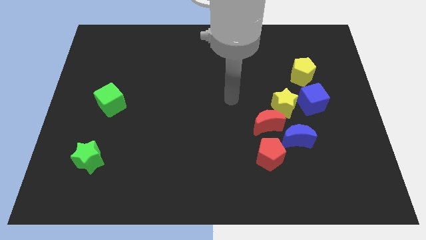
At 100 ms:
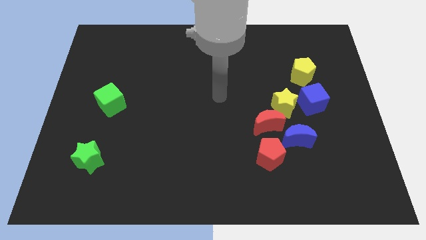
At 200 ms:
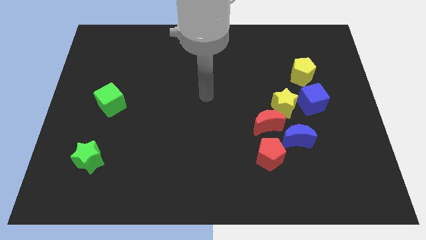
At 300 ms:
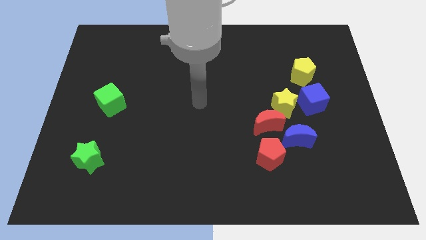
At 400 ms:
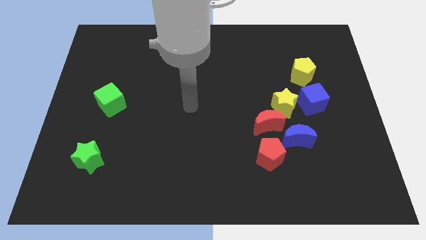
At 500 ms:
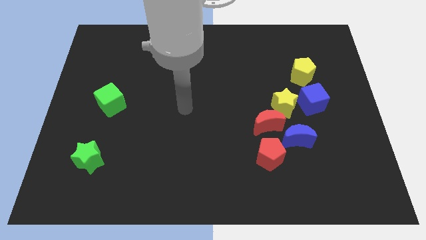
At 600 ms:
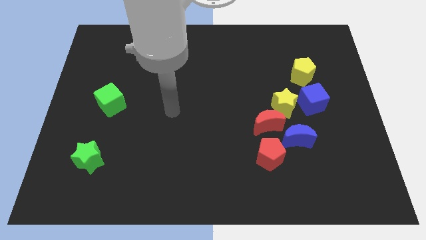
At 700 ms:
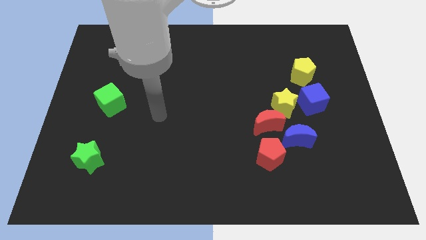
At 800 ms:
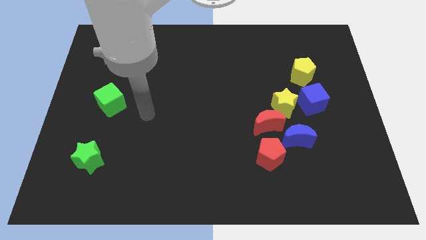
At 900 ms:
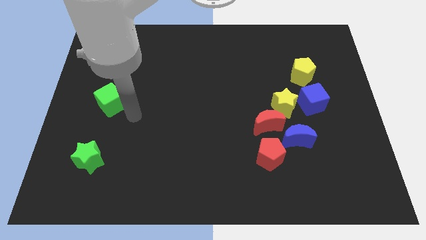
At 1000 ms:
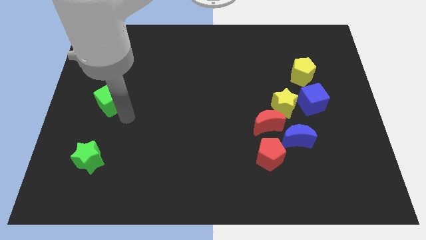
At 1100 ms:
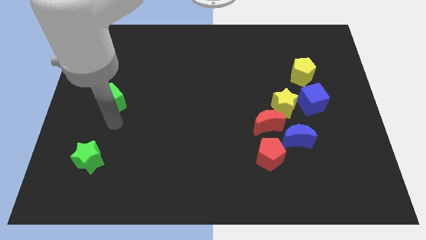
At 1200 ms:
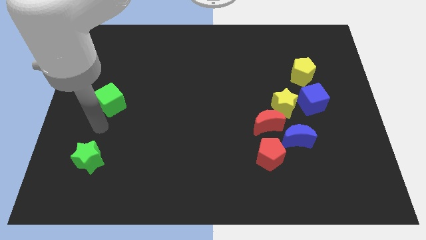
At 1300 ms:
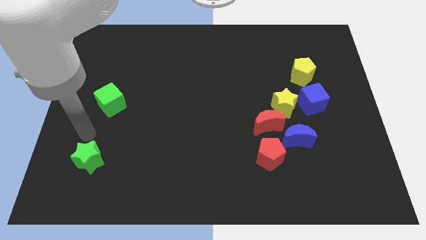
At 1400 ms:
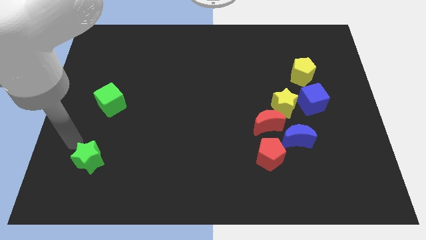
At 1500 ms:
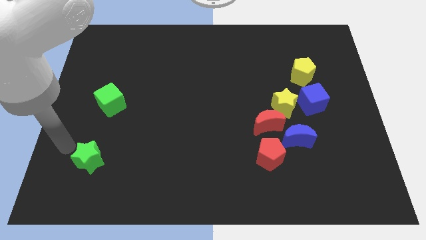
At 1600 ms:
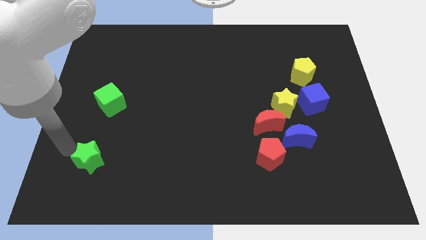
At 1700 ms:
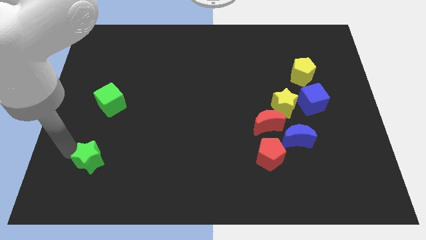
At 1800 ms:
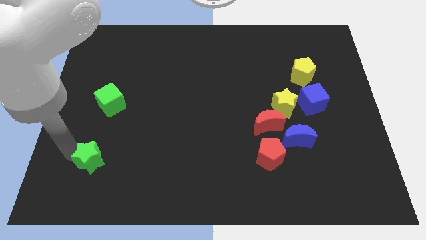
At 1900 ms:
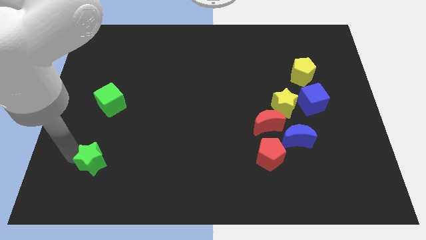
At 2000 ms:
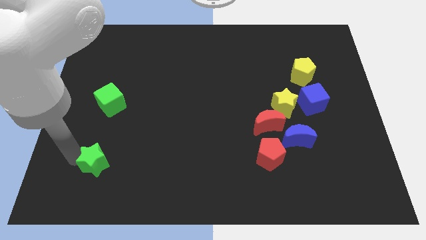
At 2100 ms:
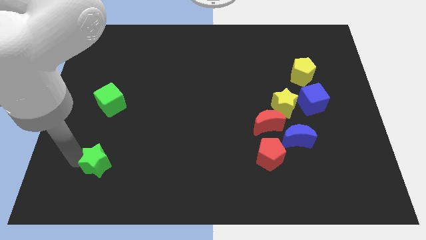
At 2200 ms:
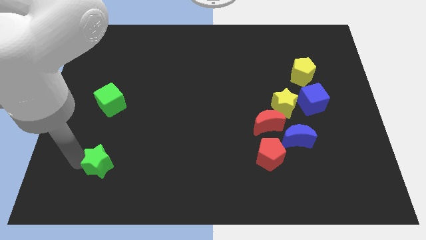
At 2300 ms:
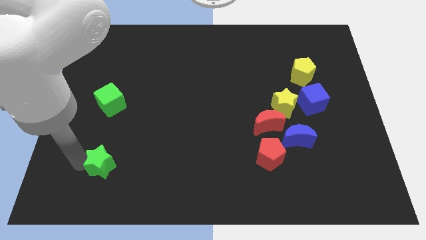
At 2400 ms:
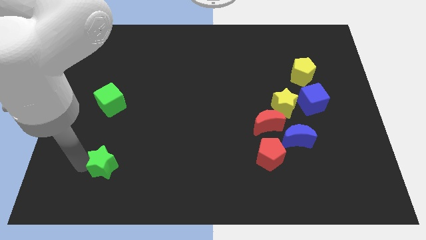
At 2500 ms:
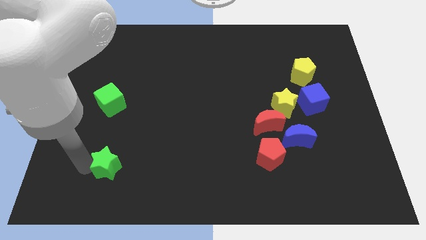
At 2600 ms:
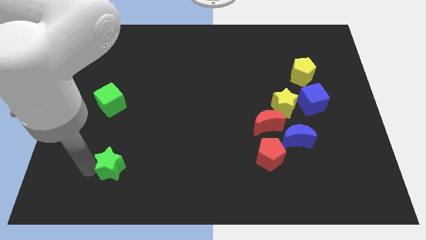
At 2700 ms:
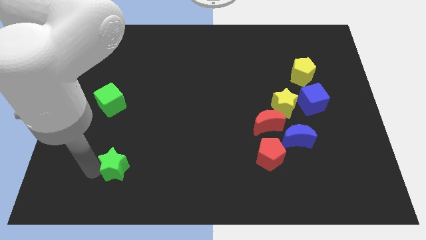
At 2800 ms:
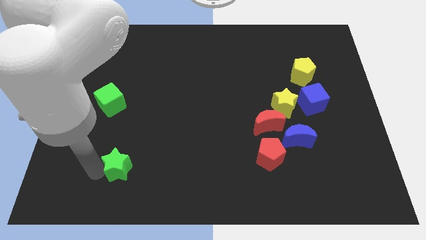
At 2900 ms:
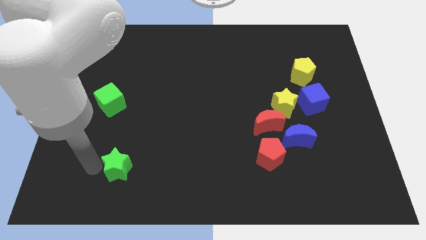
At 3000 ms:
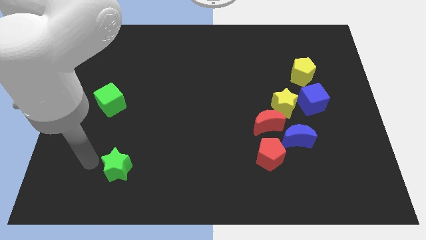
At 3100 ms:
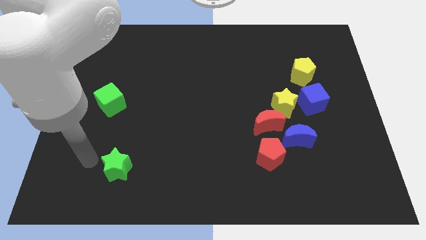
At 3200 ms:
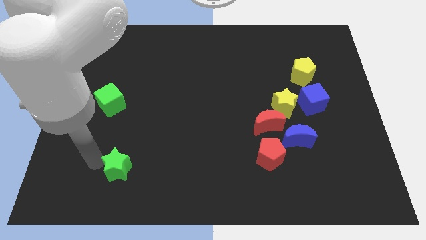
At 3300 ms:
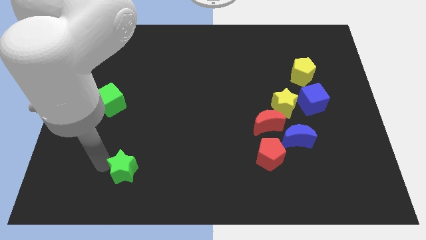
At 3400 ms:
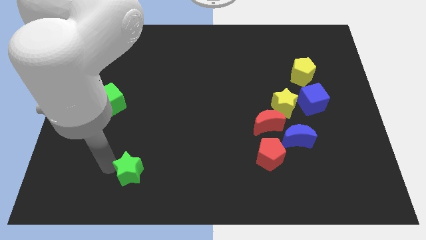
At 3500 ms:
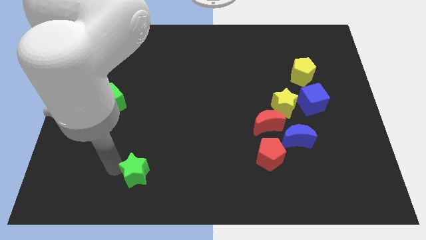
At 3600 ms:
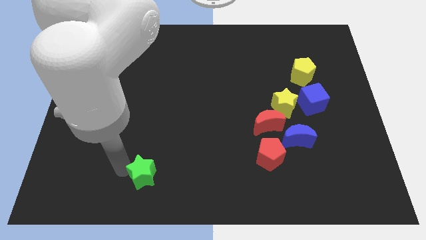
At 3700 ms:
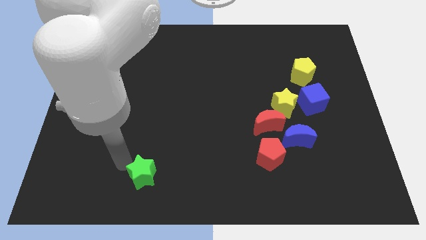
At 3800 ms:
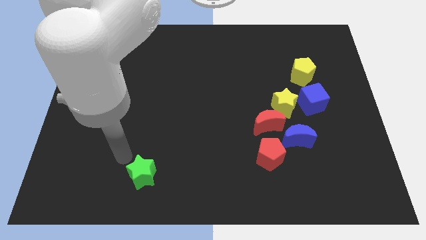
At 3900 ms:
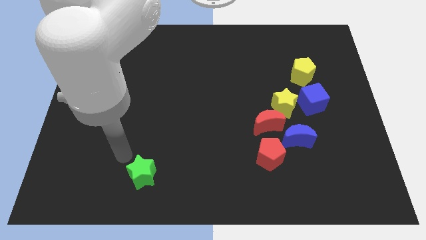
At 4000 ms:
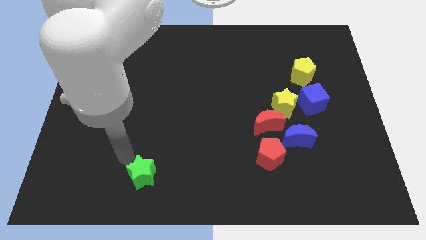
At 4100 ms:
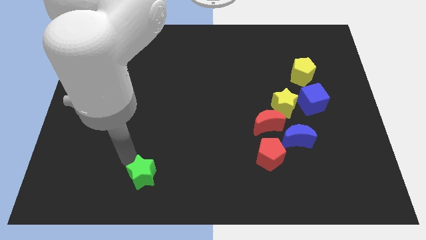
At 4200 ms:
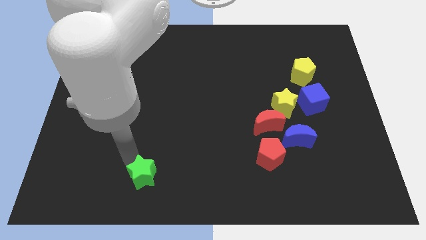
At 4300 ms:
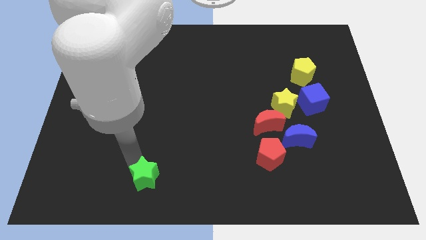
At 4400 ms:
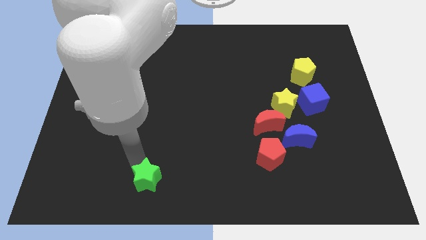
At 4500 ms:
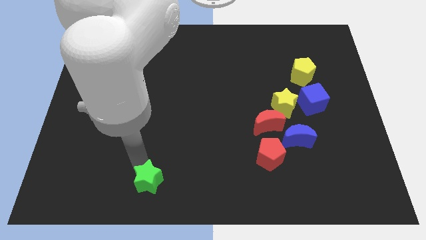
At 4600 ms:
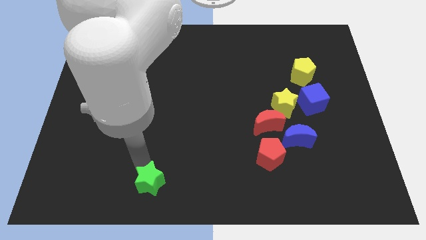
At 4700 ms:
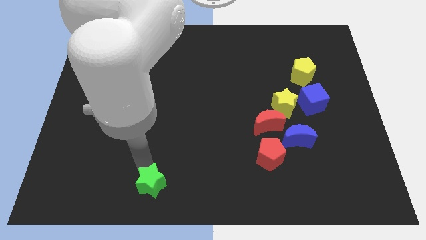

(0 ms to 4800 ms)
slide the green star to the bottom

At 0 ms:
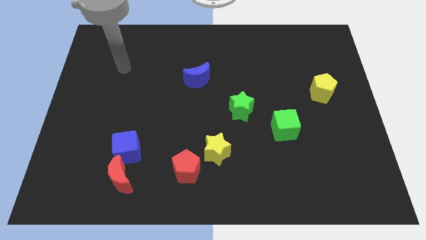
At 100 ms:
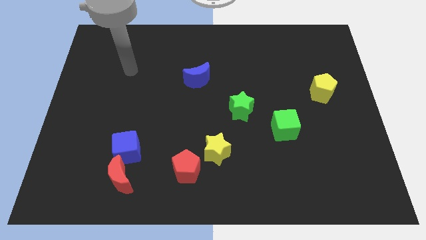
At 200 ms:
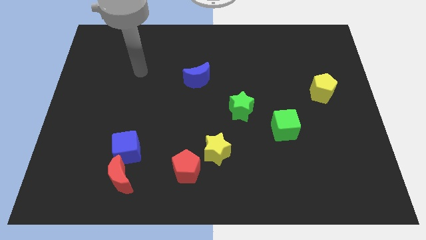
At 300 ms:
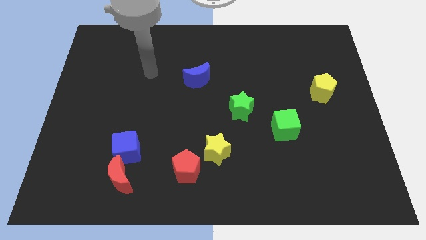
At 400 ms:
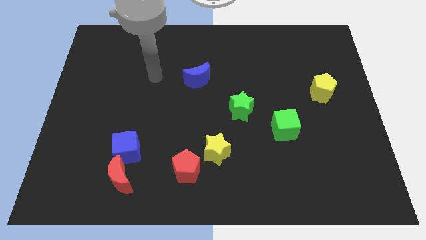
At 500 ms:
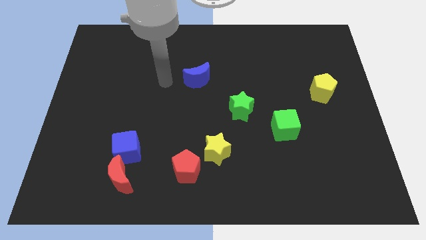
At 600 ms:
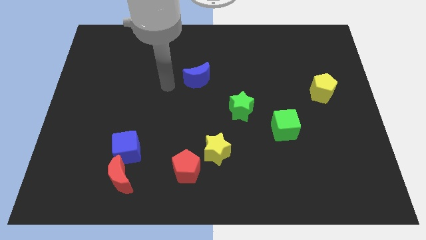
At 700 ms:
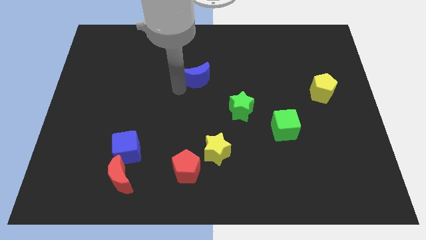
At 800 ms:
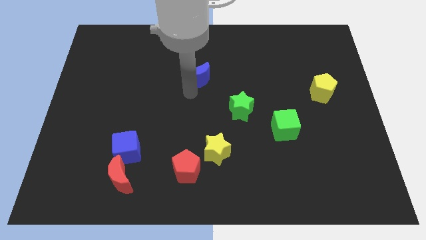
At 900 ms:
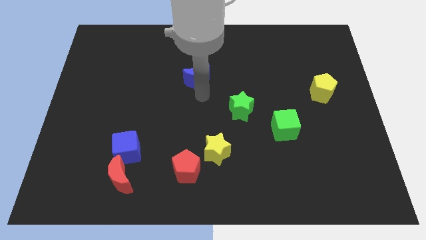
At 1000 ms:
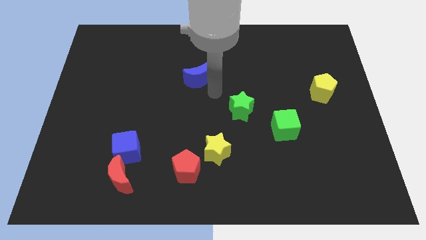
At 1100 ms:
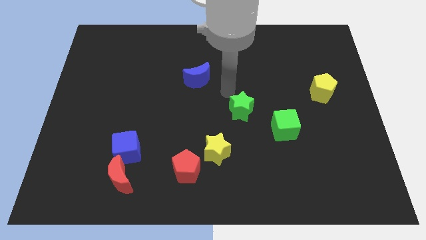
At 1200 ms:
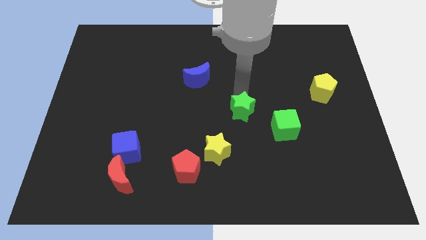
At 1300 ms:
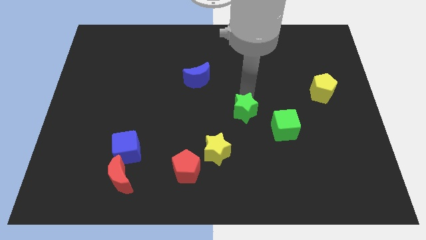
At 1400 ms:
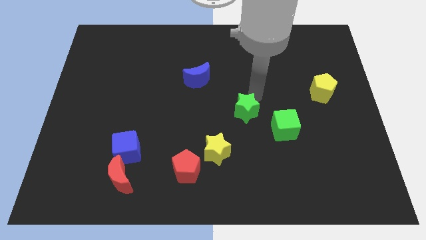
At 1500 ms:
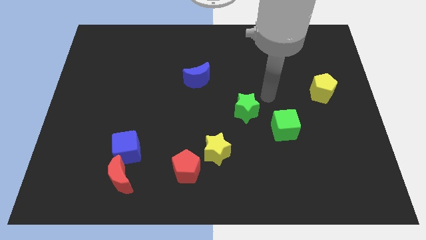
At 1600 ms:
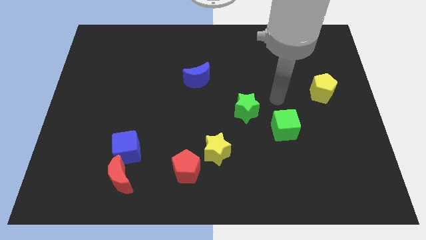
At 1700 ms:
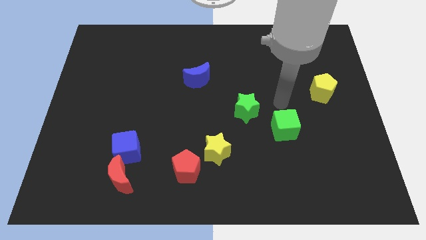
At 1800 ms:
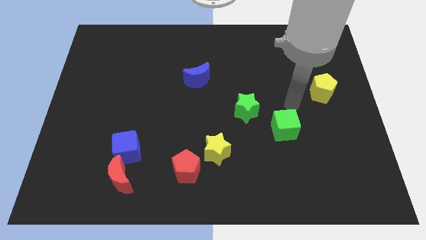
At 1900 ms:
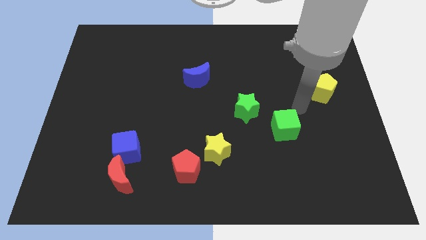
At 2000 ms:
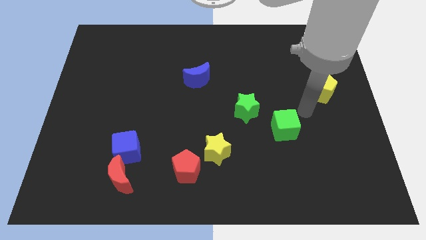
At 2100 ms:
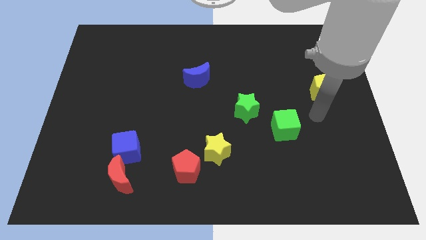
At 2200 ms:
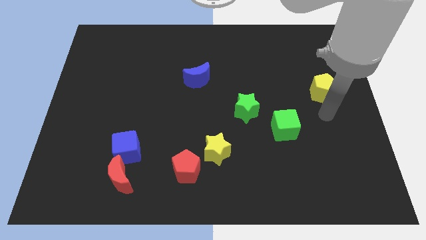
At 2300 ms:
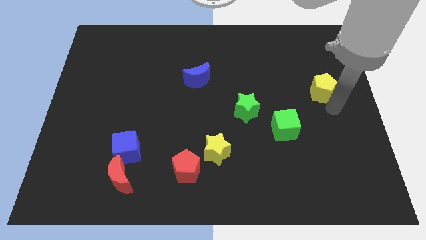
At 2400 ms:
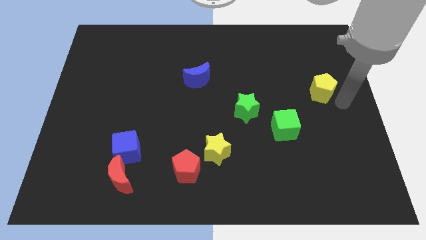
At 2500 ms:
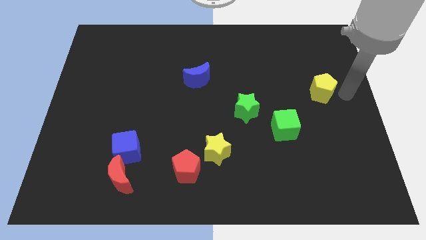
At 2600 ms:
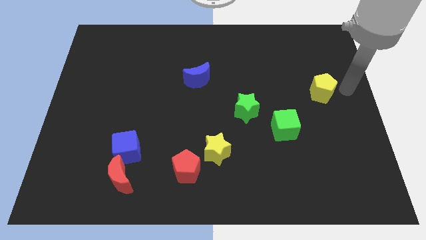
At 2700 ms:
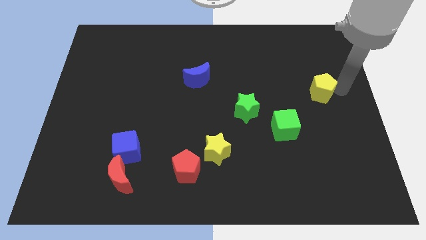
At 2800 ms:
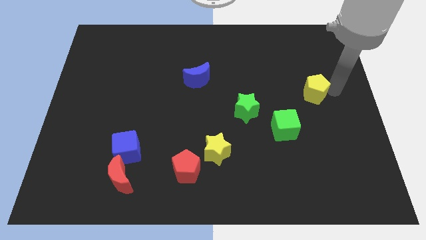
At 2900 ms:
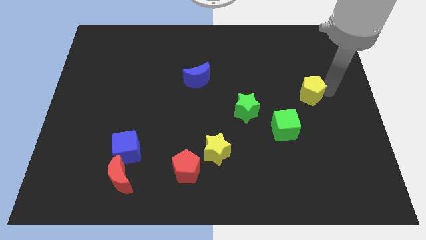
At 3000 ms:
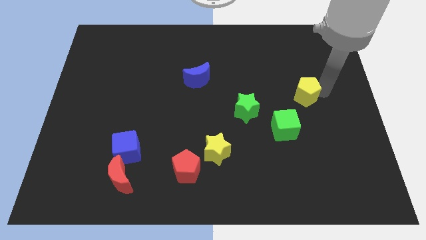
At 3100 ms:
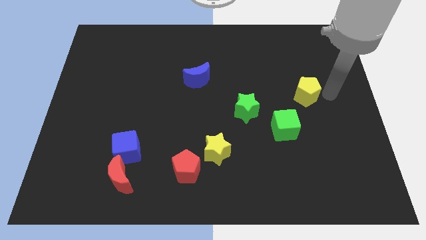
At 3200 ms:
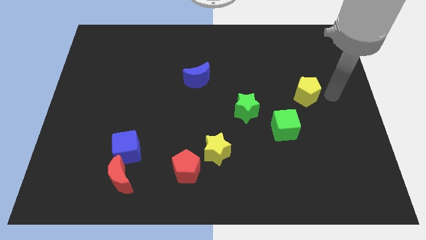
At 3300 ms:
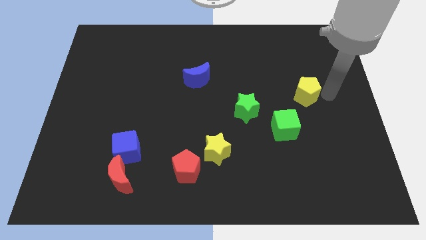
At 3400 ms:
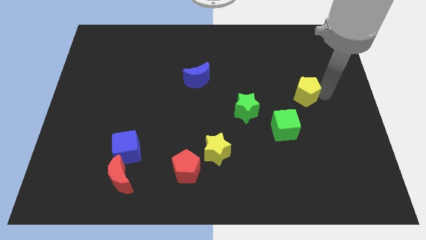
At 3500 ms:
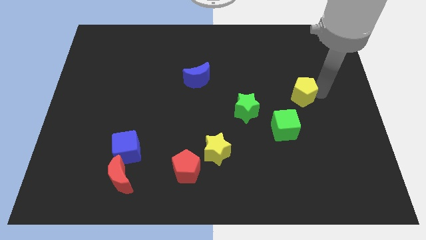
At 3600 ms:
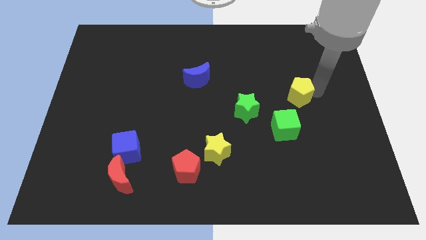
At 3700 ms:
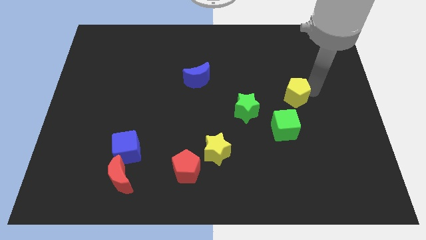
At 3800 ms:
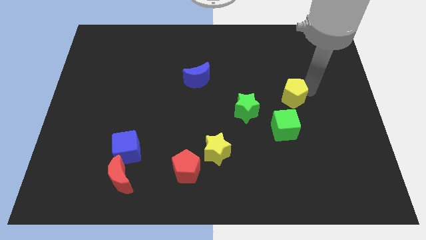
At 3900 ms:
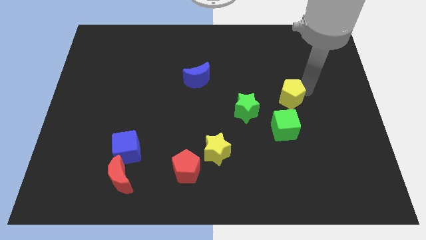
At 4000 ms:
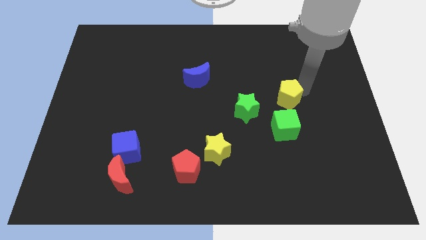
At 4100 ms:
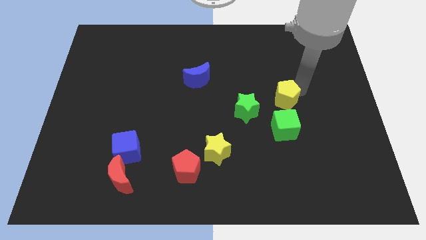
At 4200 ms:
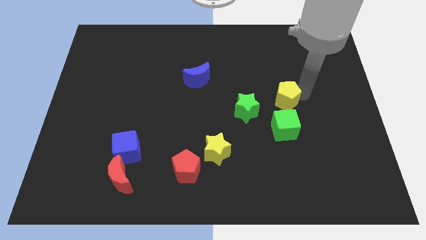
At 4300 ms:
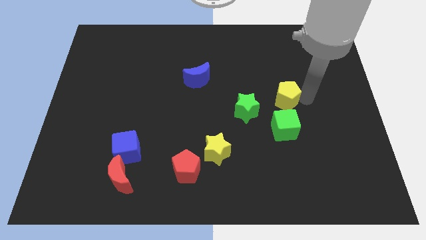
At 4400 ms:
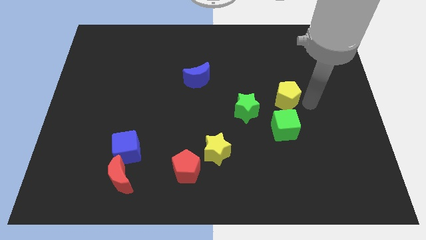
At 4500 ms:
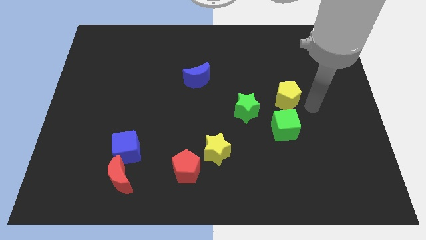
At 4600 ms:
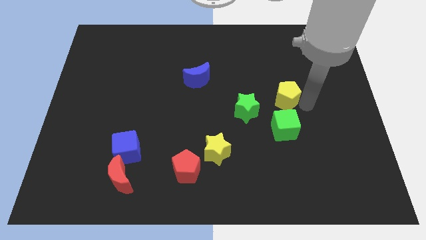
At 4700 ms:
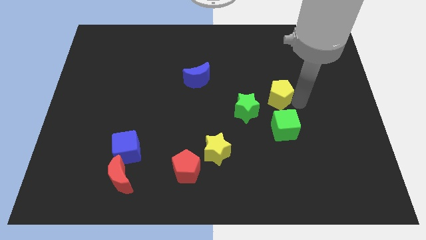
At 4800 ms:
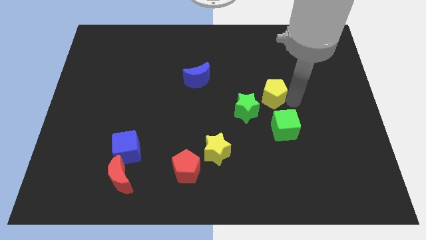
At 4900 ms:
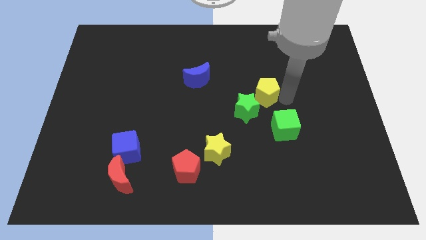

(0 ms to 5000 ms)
push the yellow pentagon to the middle
